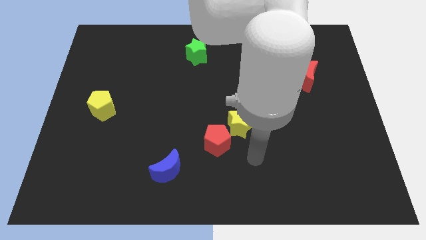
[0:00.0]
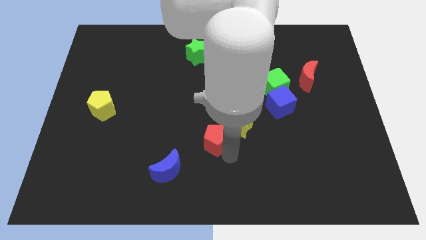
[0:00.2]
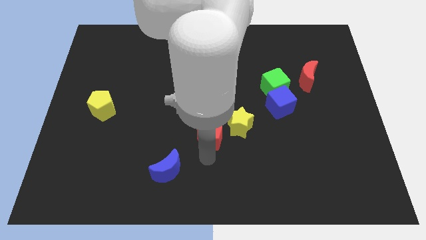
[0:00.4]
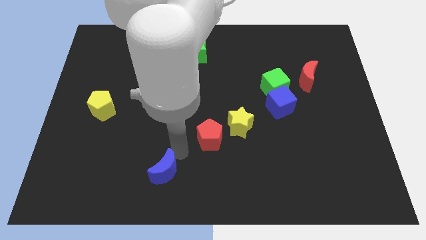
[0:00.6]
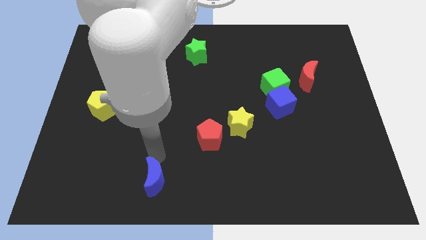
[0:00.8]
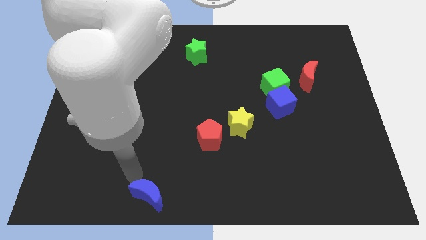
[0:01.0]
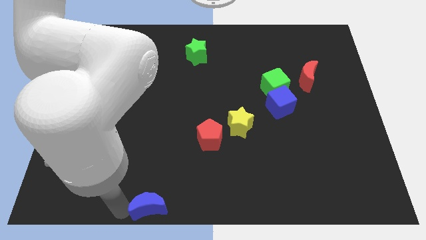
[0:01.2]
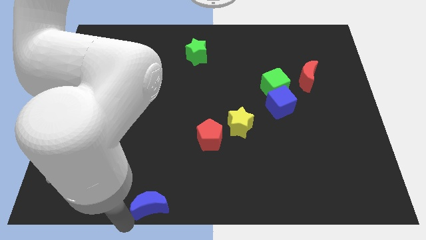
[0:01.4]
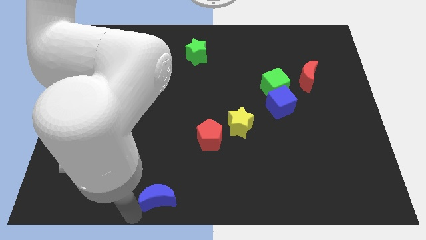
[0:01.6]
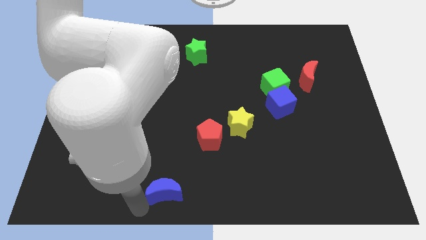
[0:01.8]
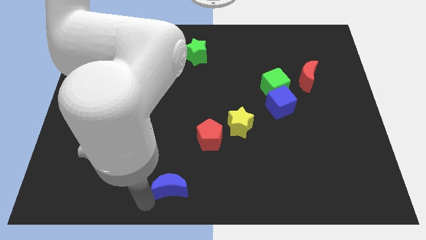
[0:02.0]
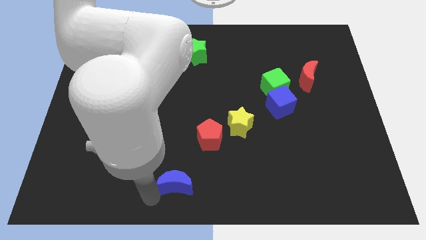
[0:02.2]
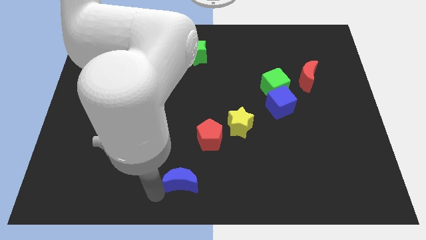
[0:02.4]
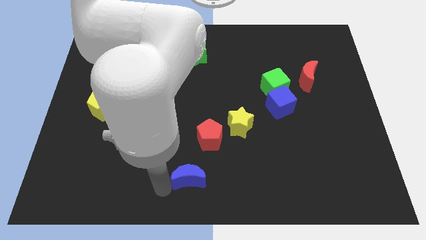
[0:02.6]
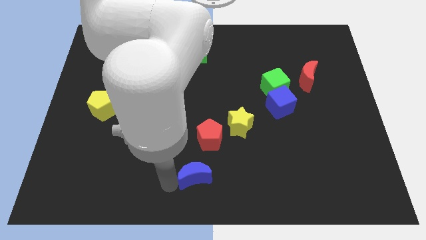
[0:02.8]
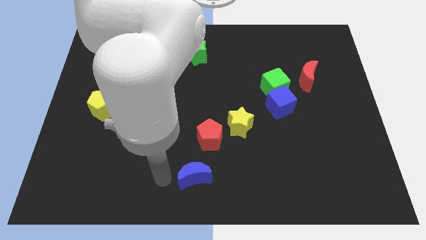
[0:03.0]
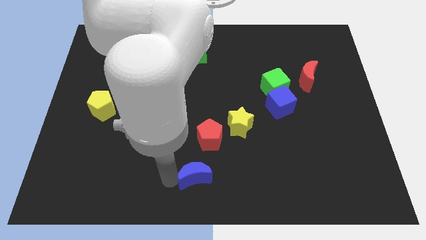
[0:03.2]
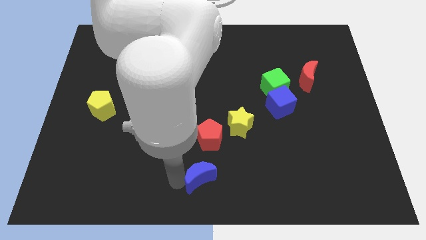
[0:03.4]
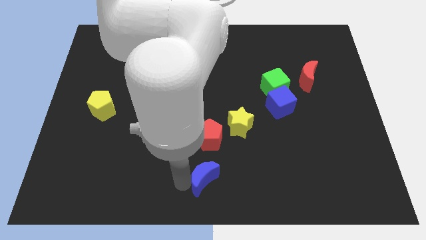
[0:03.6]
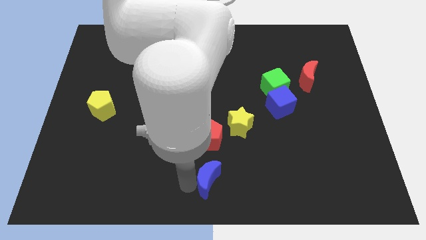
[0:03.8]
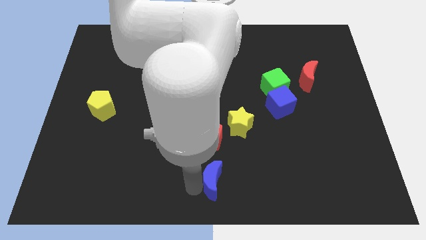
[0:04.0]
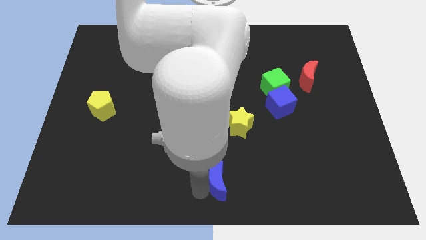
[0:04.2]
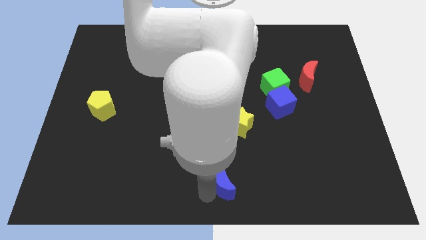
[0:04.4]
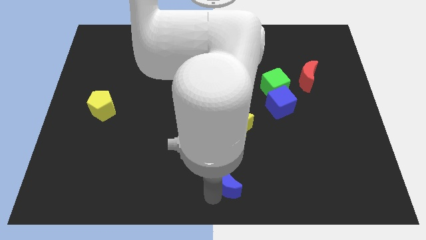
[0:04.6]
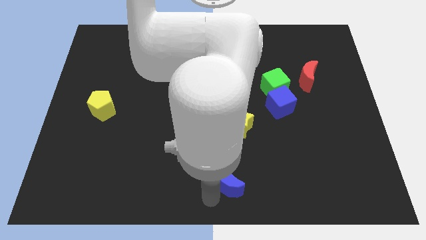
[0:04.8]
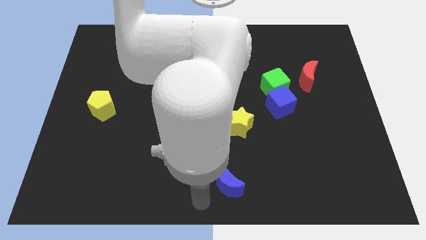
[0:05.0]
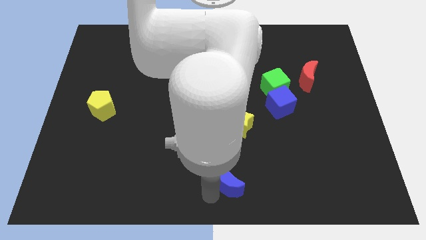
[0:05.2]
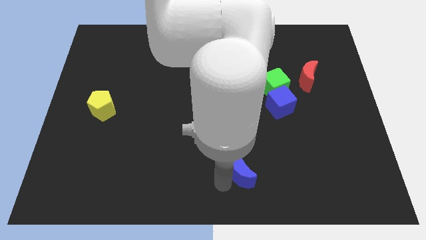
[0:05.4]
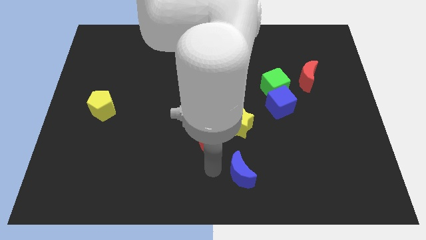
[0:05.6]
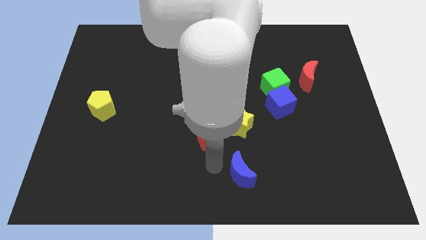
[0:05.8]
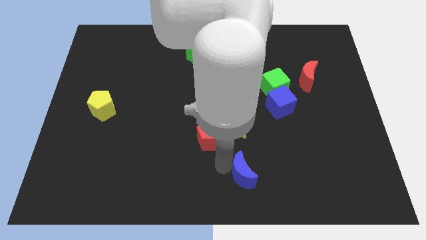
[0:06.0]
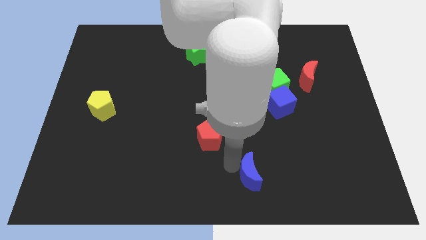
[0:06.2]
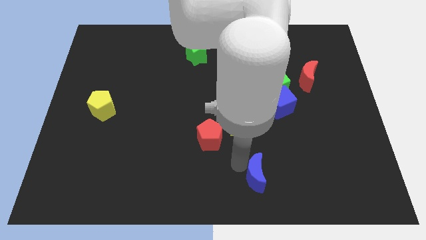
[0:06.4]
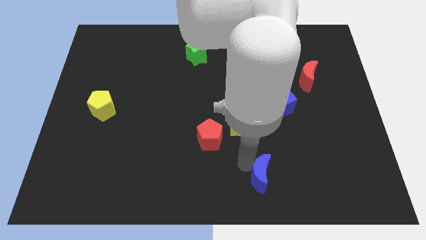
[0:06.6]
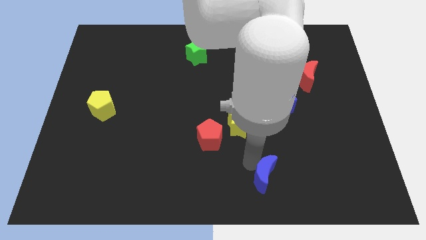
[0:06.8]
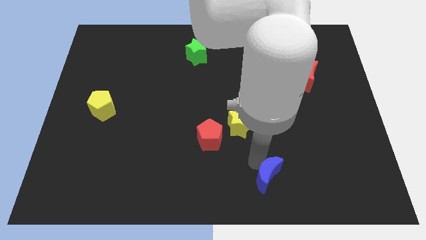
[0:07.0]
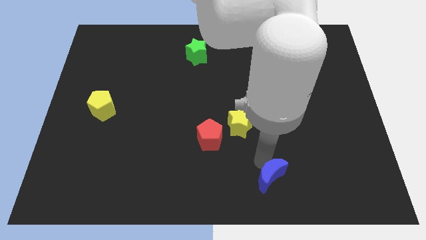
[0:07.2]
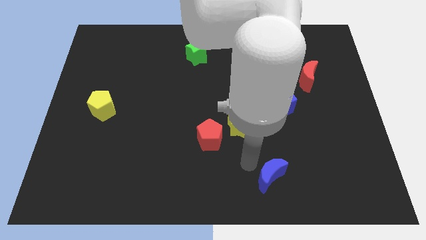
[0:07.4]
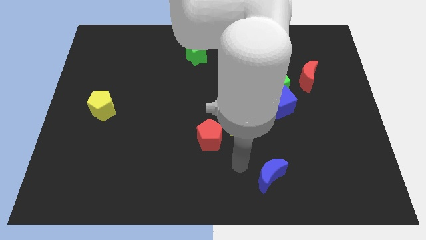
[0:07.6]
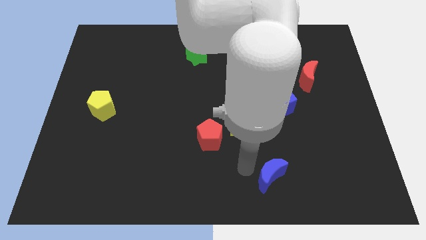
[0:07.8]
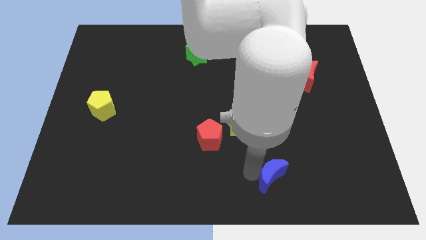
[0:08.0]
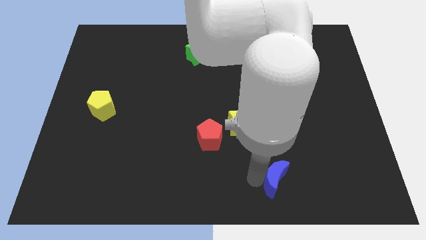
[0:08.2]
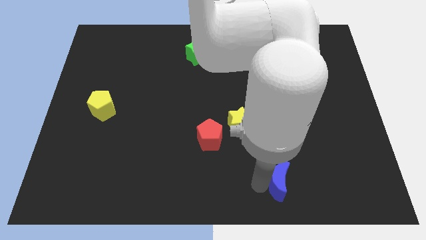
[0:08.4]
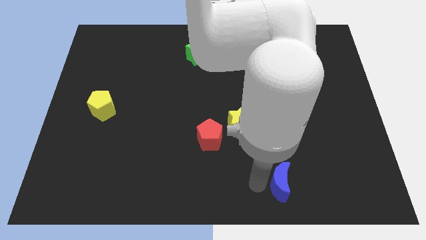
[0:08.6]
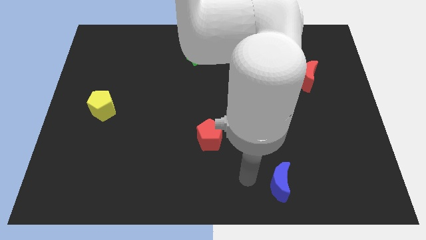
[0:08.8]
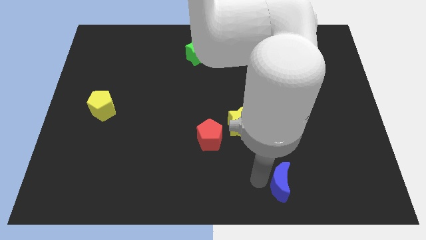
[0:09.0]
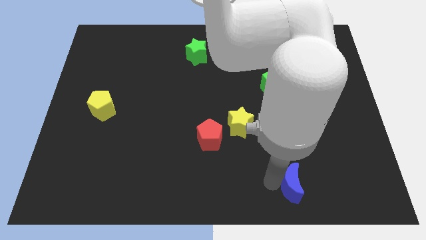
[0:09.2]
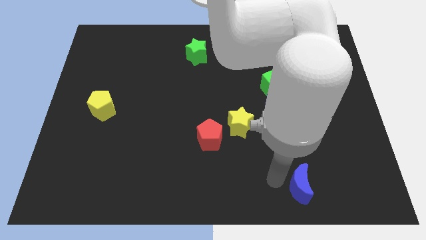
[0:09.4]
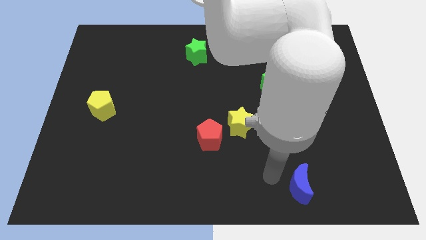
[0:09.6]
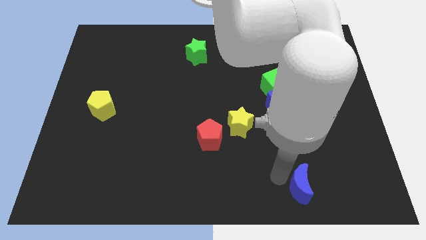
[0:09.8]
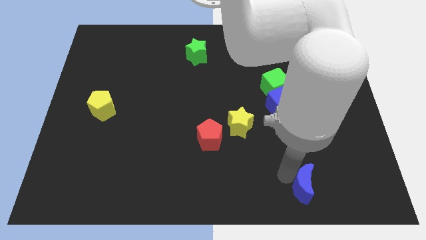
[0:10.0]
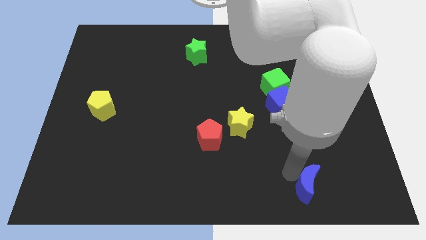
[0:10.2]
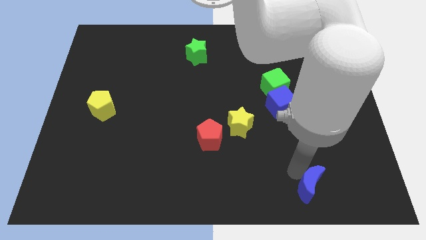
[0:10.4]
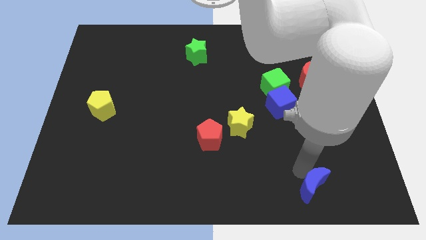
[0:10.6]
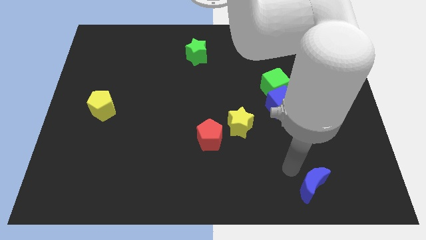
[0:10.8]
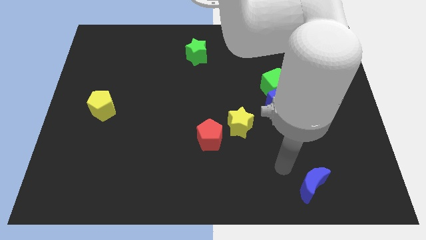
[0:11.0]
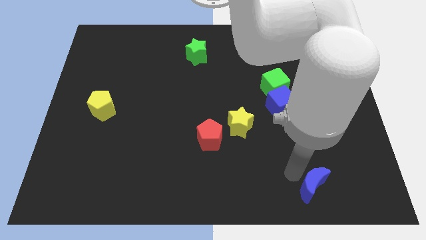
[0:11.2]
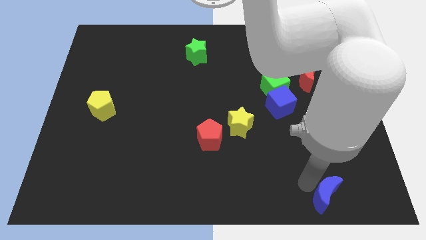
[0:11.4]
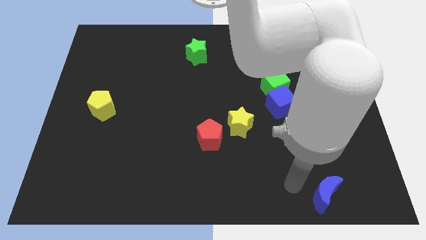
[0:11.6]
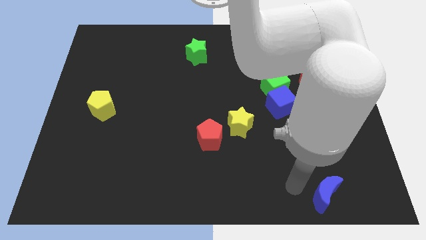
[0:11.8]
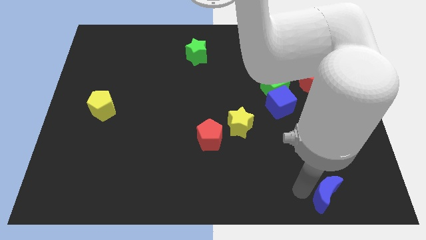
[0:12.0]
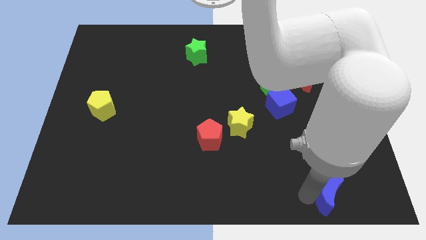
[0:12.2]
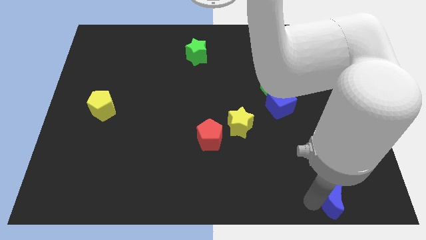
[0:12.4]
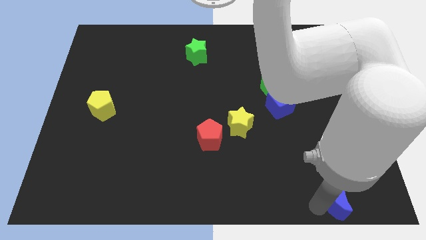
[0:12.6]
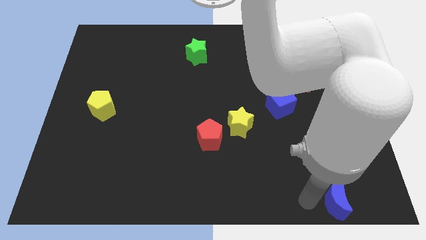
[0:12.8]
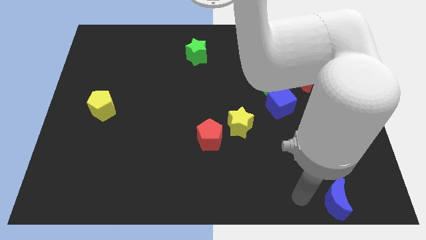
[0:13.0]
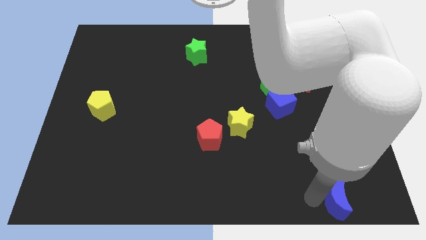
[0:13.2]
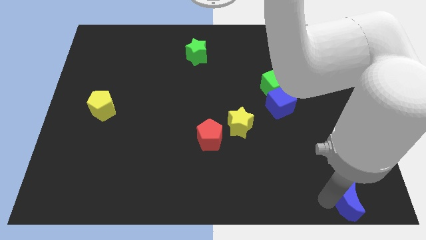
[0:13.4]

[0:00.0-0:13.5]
move the blue moon to the bottom right
